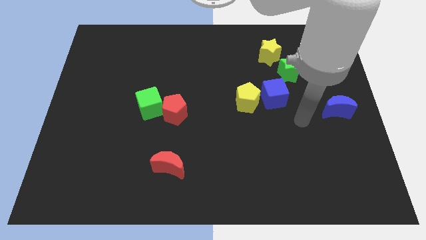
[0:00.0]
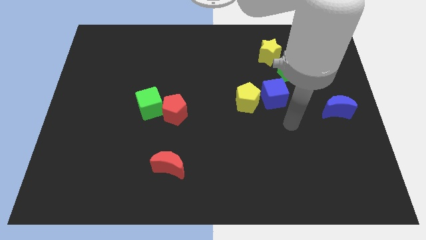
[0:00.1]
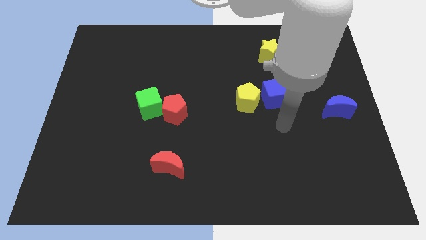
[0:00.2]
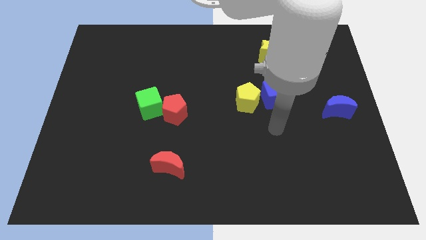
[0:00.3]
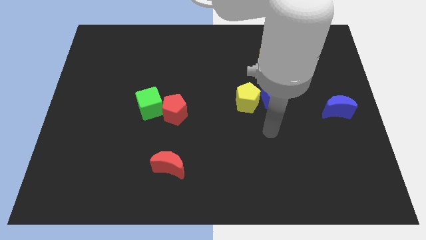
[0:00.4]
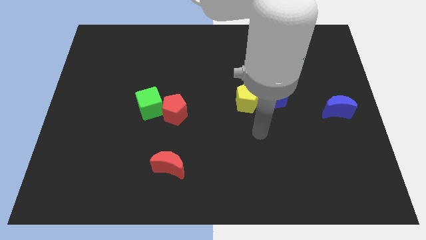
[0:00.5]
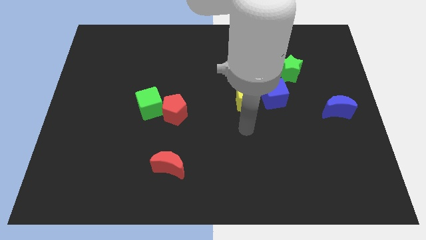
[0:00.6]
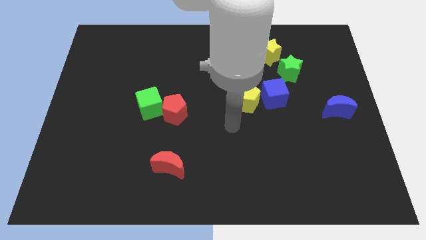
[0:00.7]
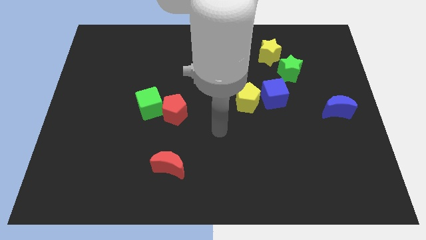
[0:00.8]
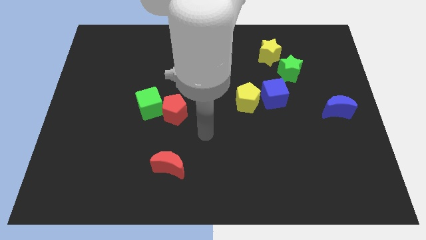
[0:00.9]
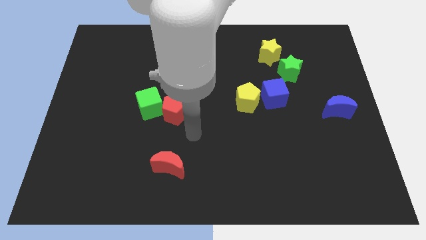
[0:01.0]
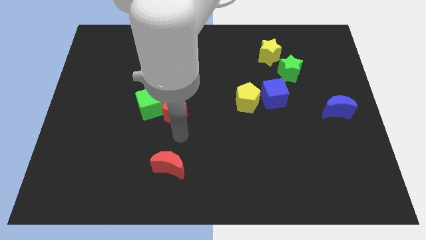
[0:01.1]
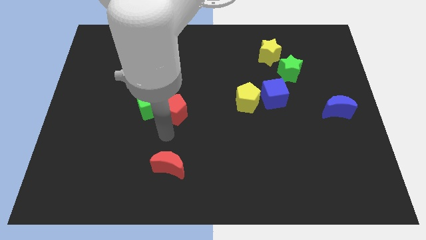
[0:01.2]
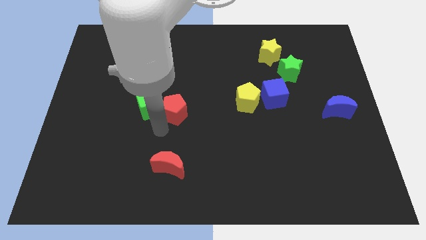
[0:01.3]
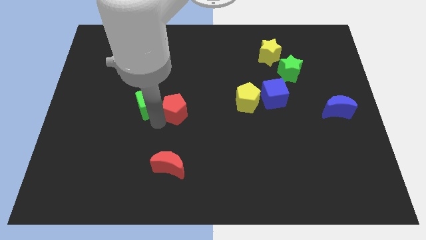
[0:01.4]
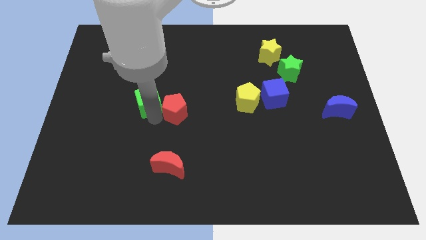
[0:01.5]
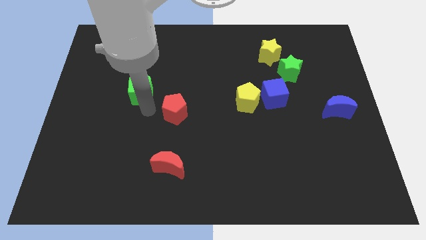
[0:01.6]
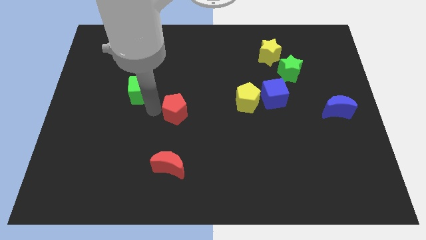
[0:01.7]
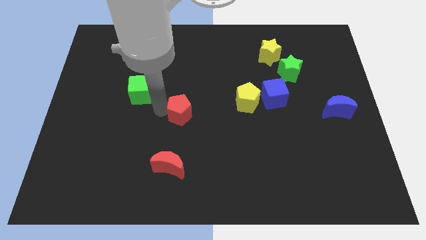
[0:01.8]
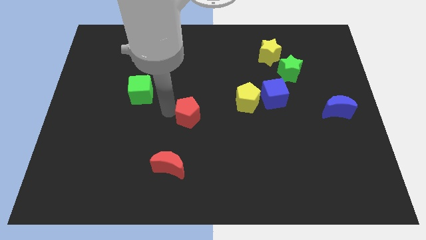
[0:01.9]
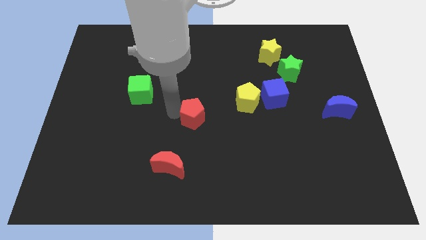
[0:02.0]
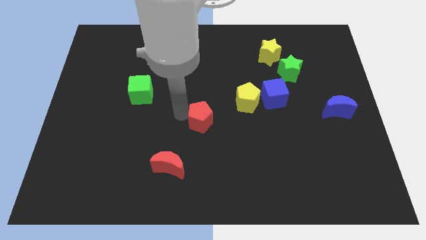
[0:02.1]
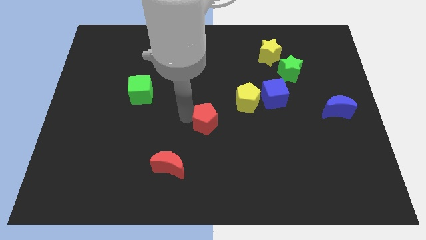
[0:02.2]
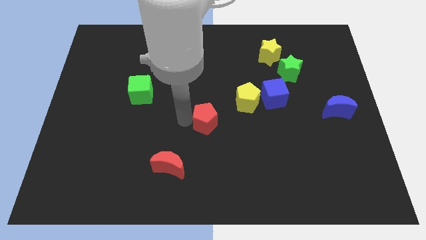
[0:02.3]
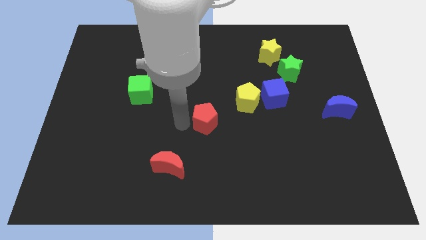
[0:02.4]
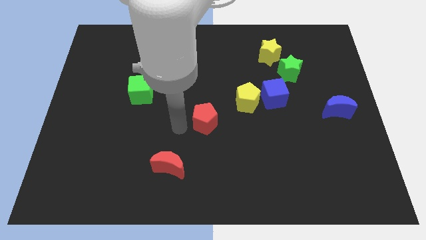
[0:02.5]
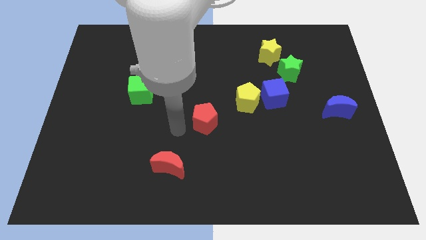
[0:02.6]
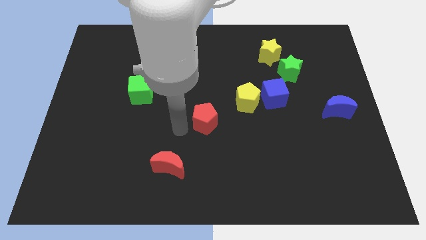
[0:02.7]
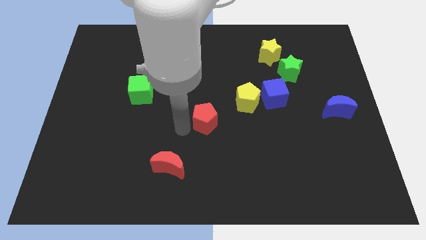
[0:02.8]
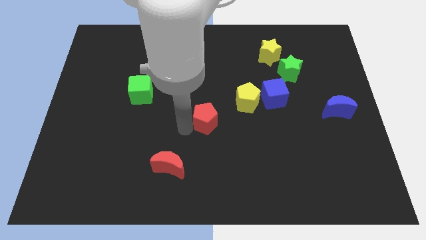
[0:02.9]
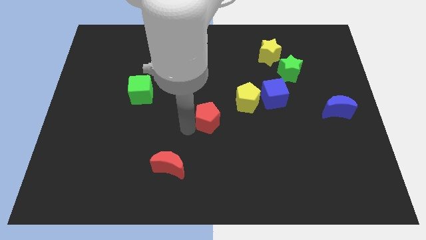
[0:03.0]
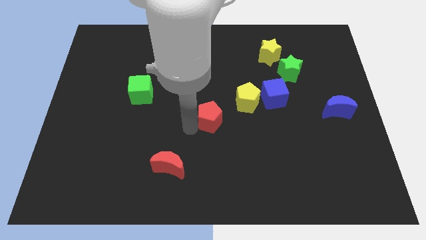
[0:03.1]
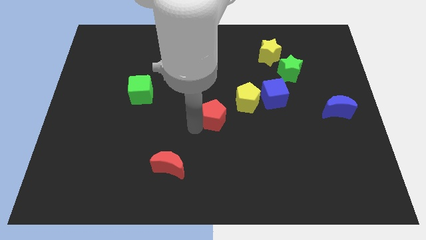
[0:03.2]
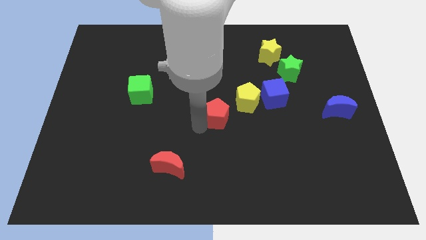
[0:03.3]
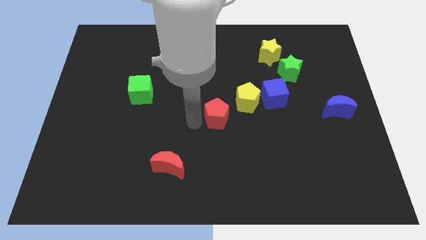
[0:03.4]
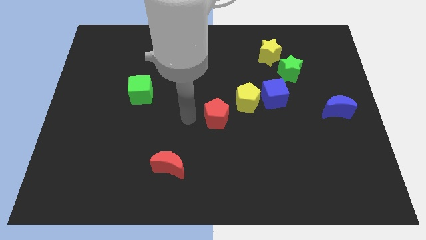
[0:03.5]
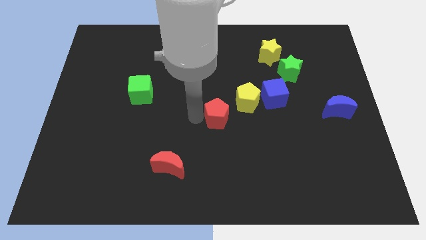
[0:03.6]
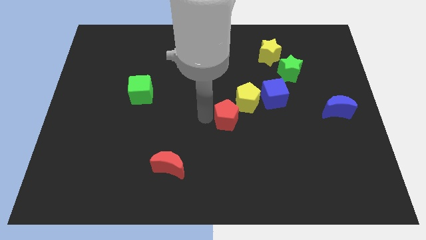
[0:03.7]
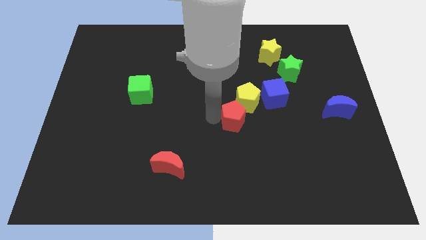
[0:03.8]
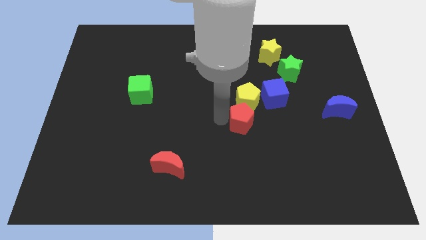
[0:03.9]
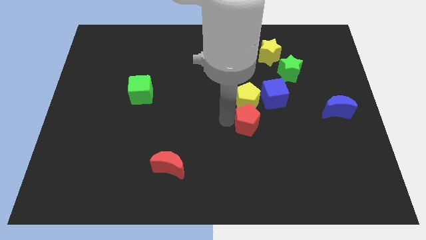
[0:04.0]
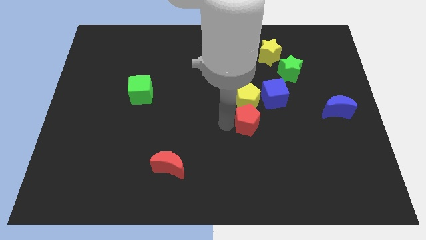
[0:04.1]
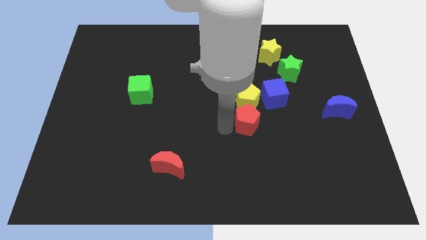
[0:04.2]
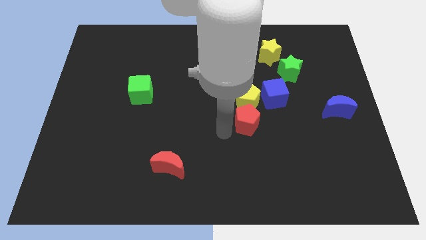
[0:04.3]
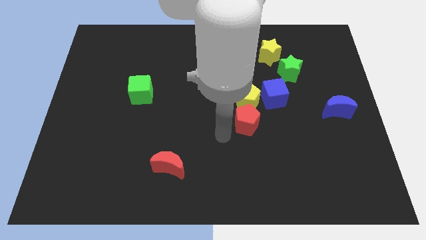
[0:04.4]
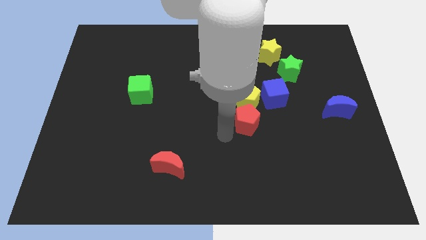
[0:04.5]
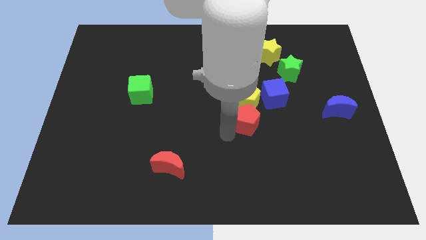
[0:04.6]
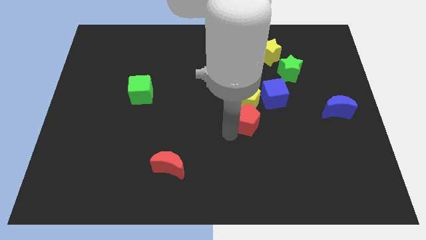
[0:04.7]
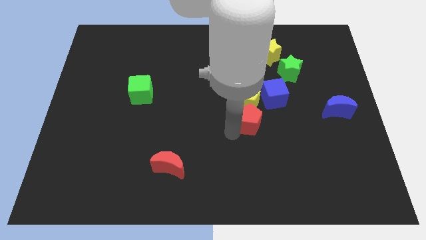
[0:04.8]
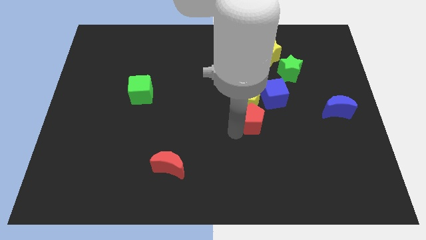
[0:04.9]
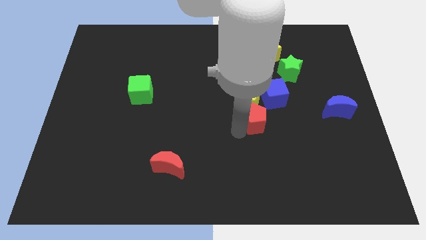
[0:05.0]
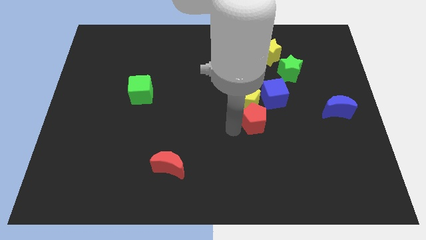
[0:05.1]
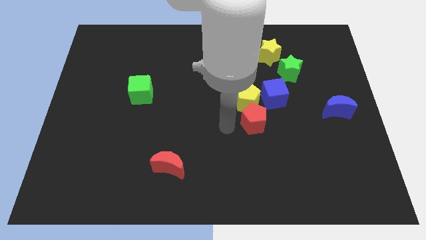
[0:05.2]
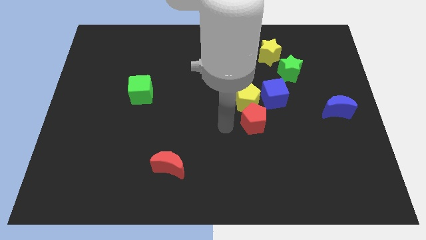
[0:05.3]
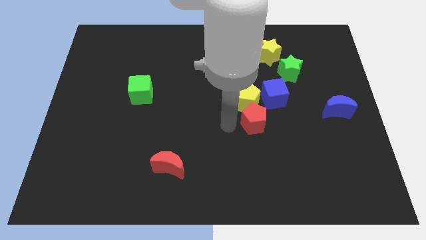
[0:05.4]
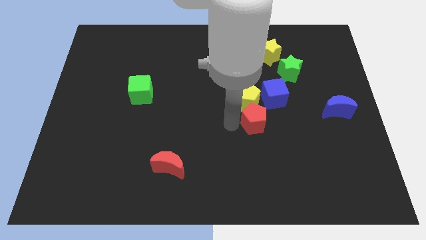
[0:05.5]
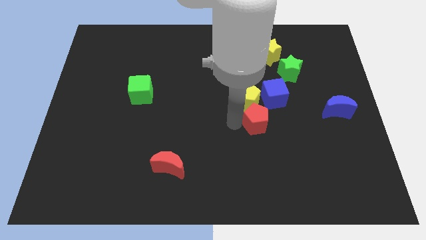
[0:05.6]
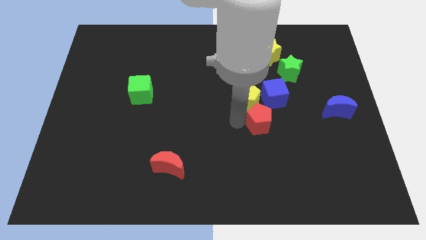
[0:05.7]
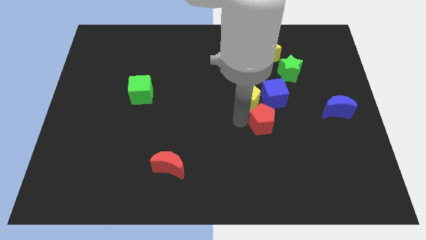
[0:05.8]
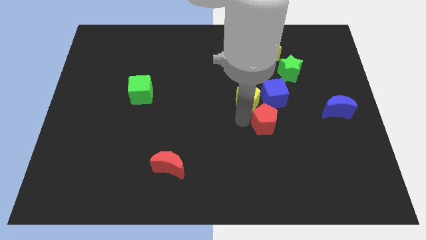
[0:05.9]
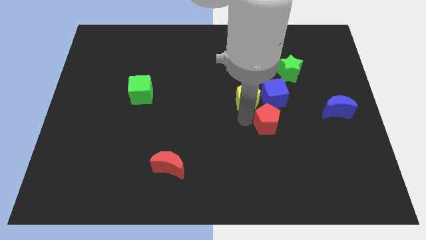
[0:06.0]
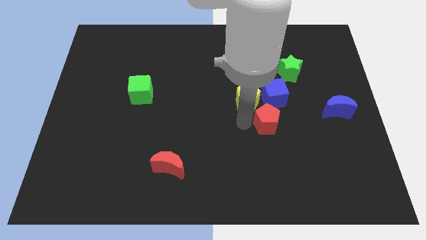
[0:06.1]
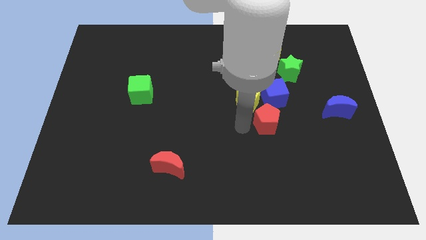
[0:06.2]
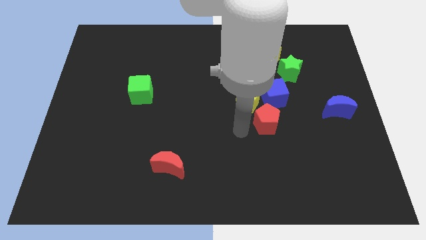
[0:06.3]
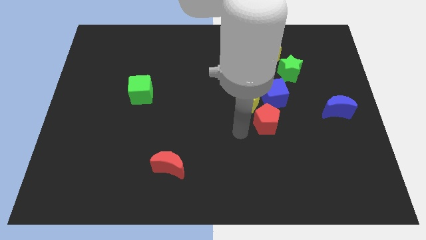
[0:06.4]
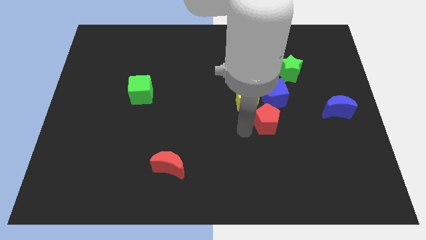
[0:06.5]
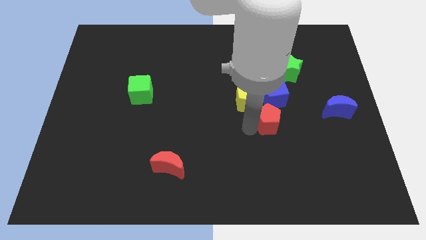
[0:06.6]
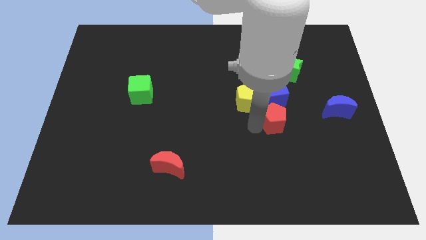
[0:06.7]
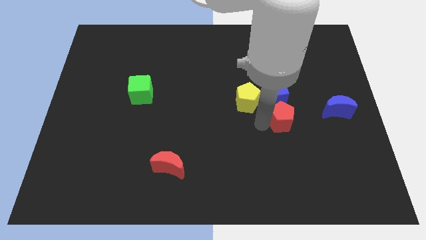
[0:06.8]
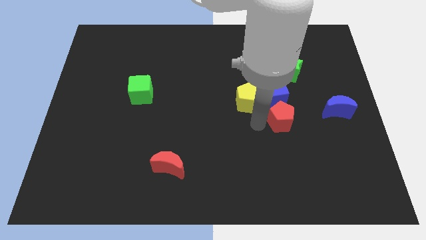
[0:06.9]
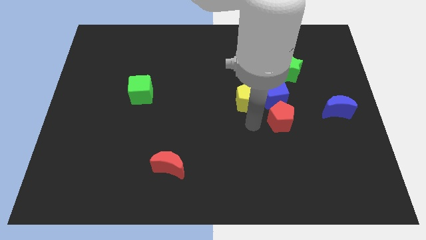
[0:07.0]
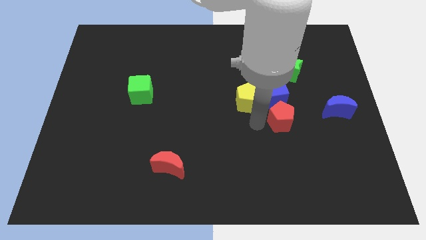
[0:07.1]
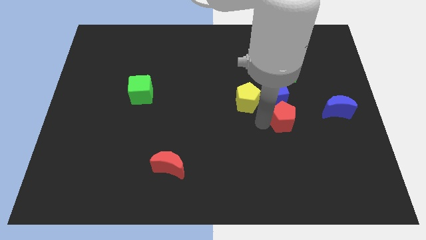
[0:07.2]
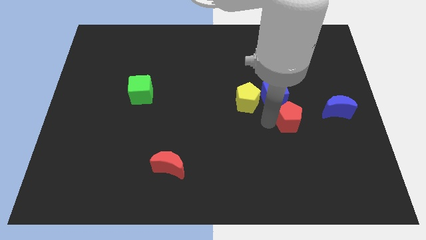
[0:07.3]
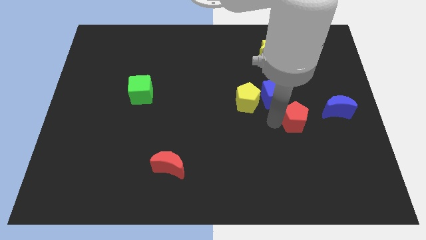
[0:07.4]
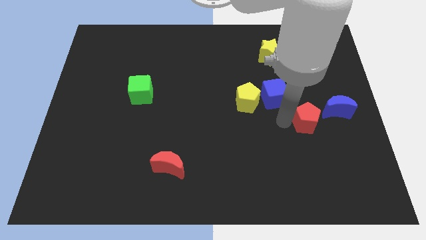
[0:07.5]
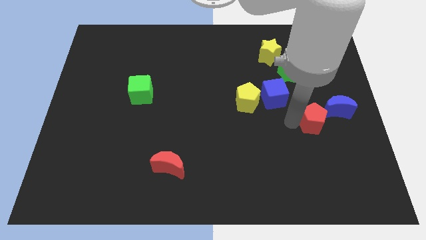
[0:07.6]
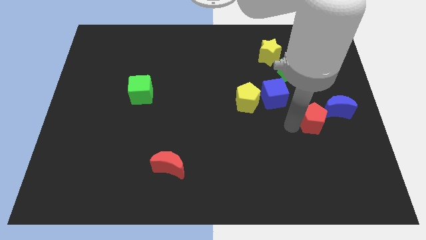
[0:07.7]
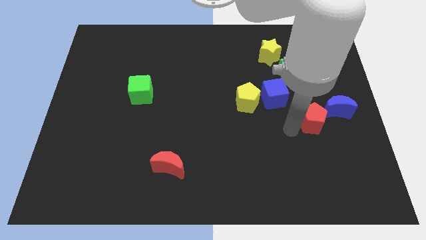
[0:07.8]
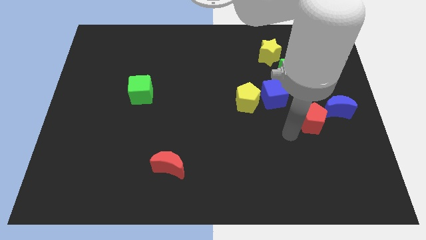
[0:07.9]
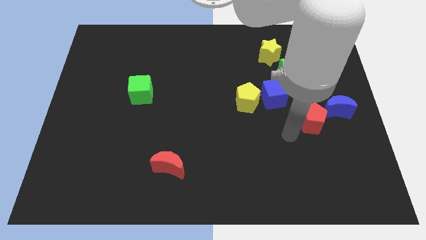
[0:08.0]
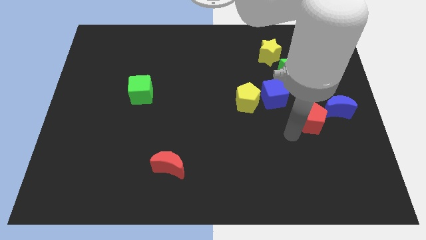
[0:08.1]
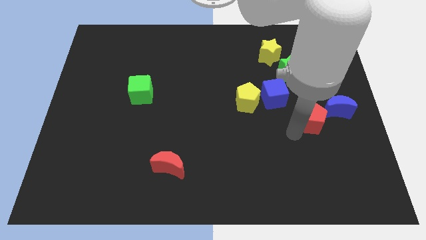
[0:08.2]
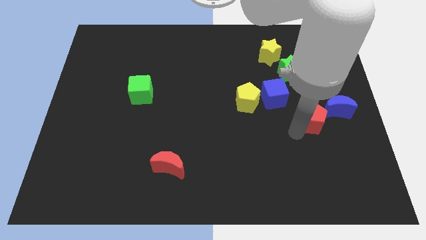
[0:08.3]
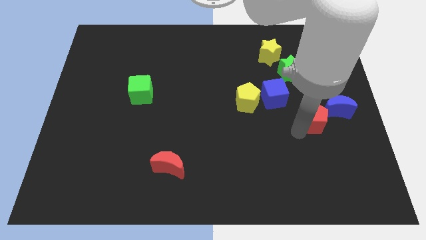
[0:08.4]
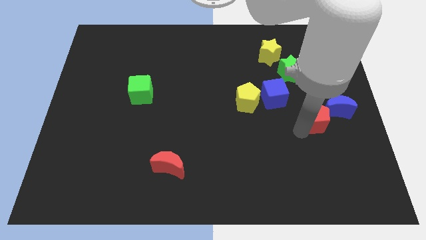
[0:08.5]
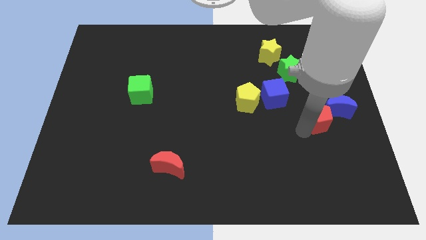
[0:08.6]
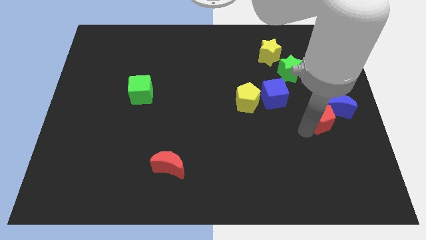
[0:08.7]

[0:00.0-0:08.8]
put the red pentagon towards the blue moon
